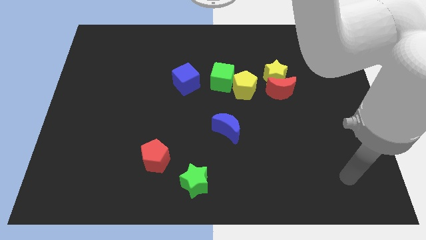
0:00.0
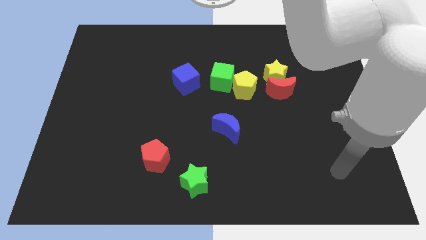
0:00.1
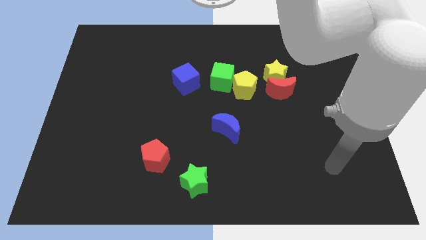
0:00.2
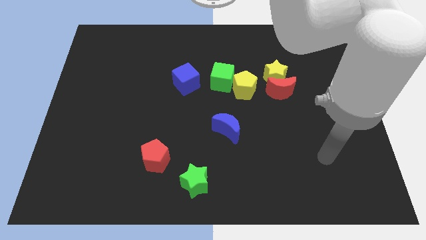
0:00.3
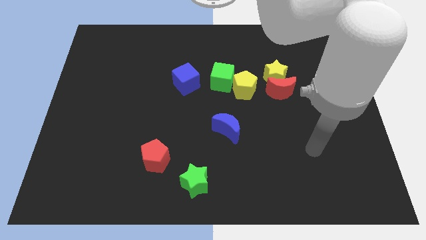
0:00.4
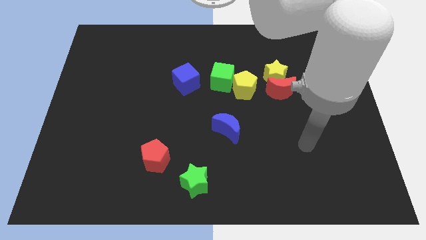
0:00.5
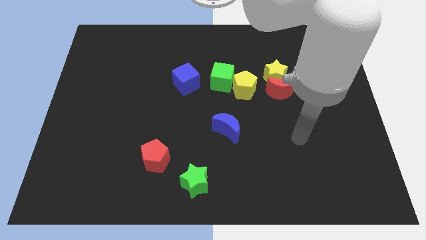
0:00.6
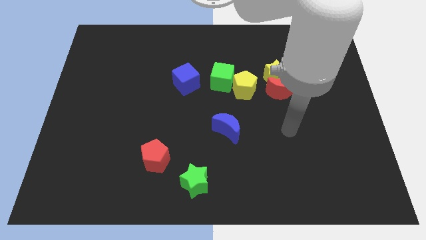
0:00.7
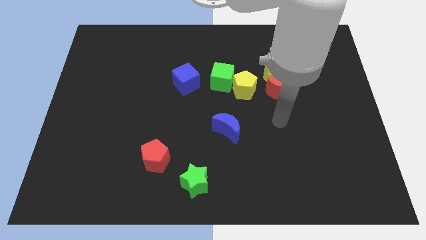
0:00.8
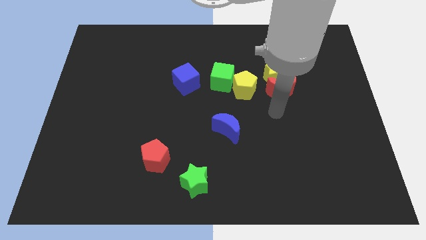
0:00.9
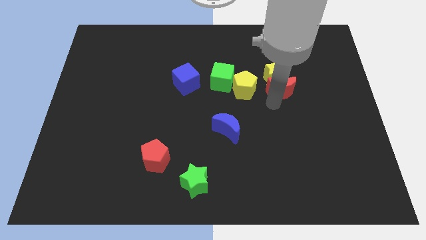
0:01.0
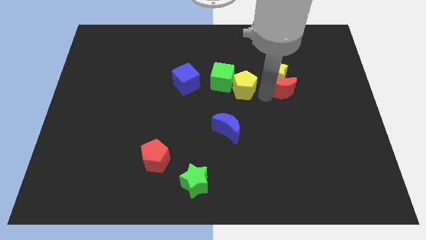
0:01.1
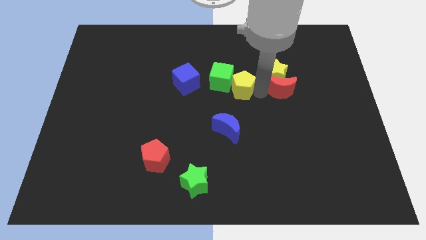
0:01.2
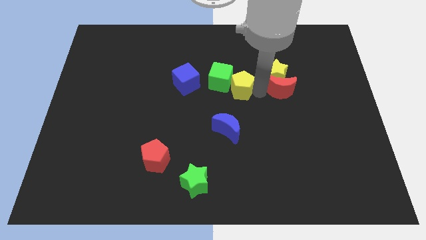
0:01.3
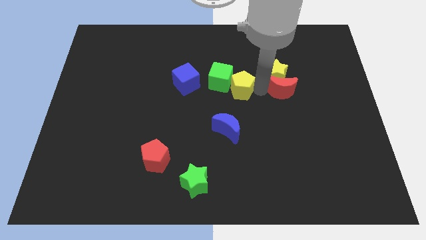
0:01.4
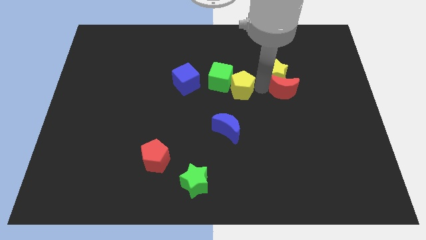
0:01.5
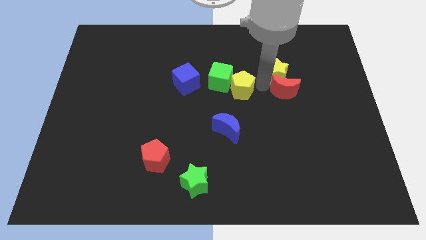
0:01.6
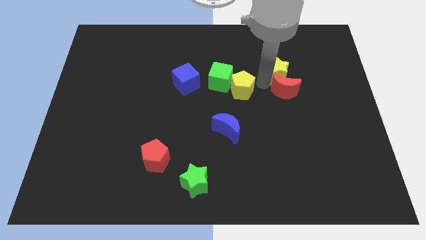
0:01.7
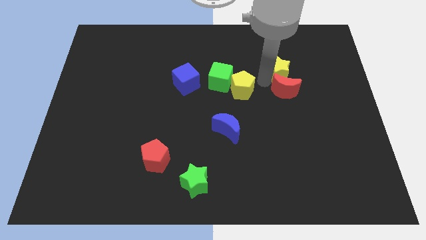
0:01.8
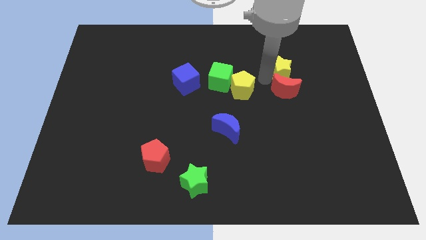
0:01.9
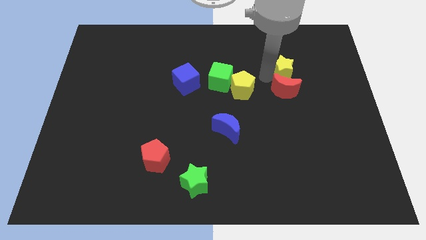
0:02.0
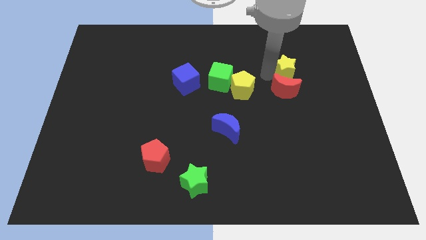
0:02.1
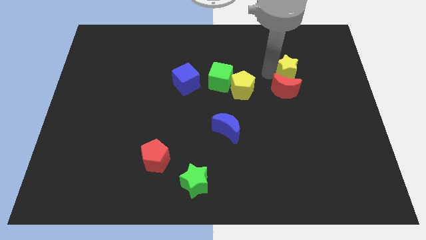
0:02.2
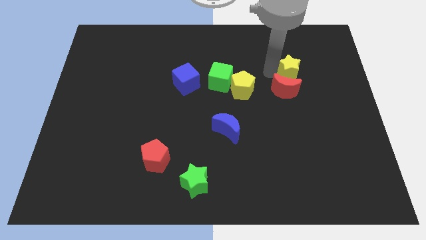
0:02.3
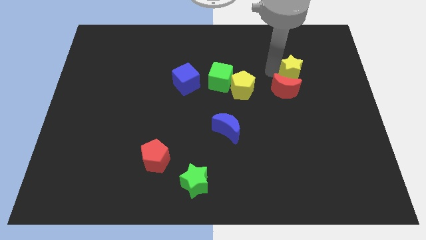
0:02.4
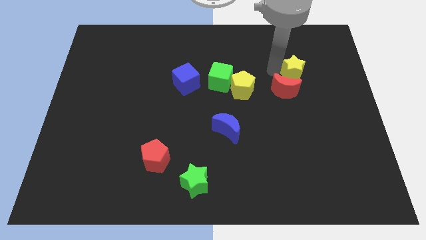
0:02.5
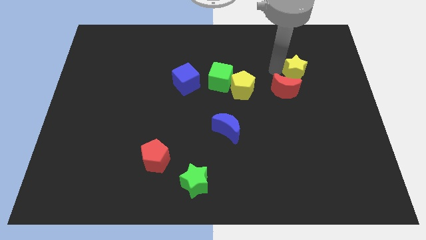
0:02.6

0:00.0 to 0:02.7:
move the yellow star away from the red moon and yellow pentagon

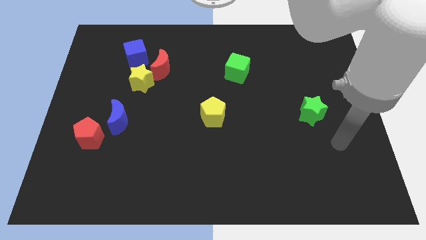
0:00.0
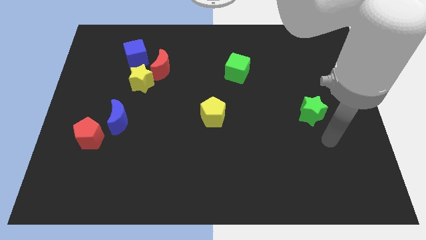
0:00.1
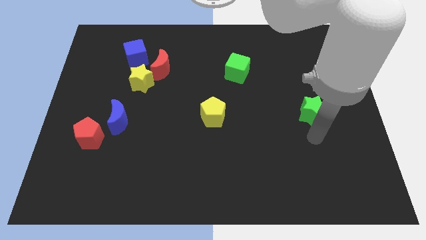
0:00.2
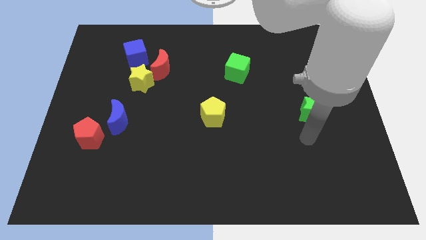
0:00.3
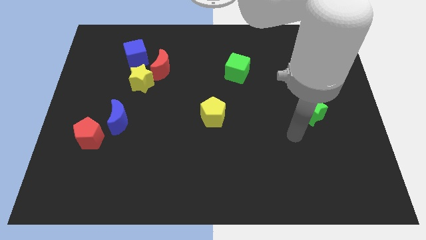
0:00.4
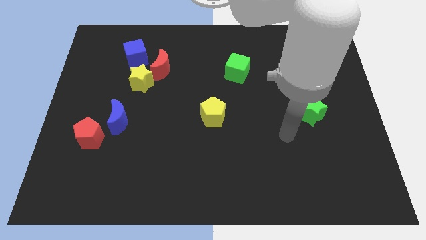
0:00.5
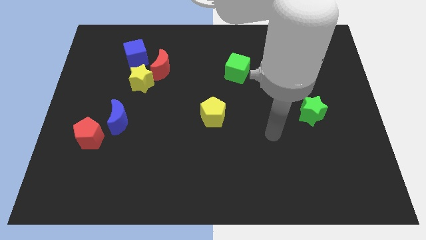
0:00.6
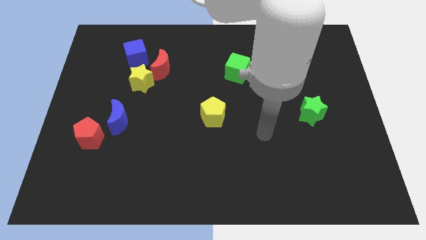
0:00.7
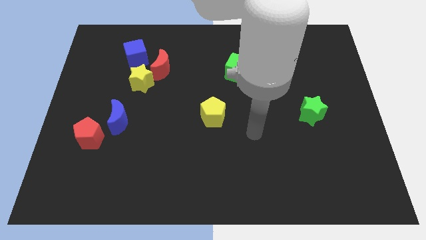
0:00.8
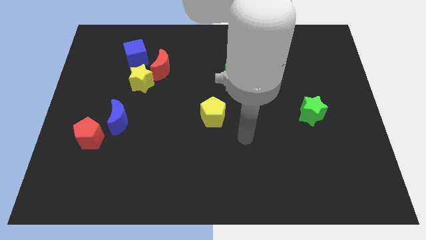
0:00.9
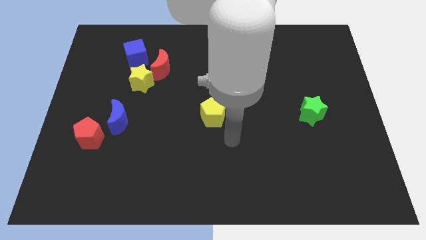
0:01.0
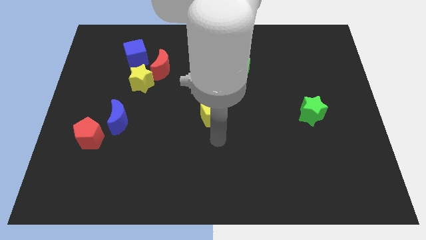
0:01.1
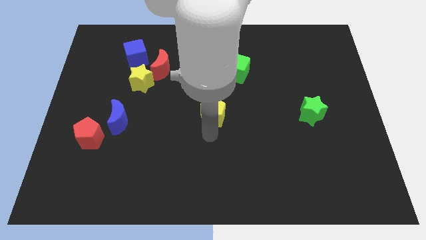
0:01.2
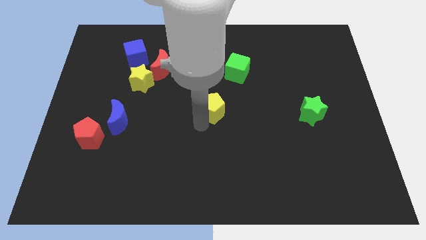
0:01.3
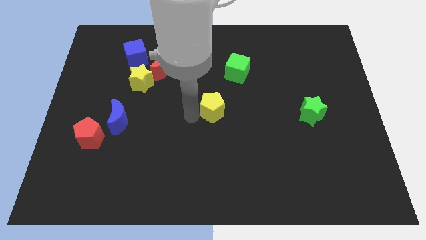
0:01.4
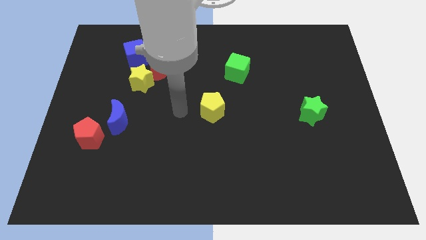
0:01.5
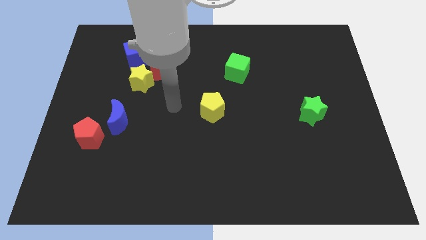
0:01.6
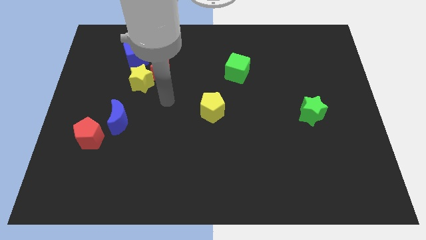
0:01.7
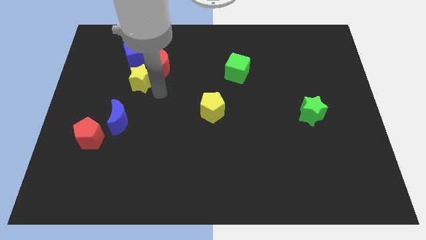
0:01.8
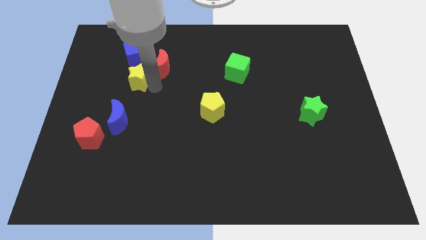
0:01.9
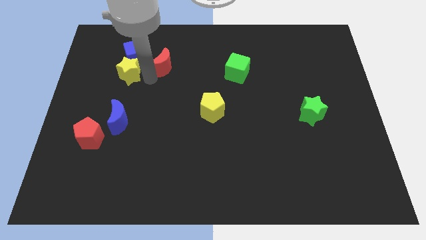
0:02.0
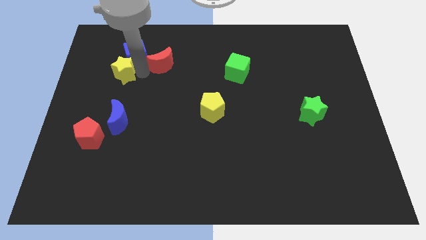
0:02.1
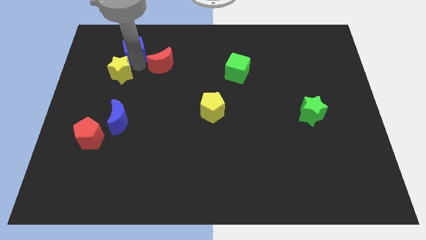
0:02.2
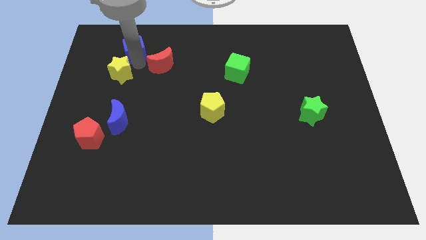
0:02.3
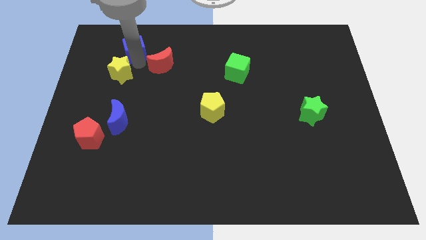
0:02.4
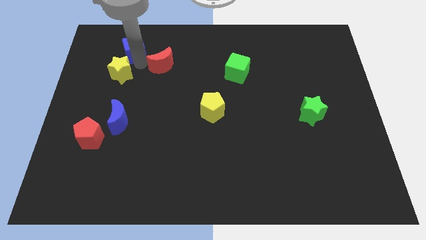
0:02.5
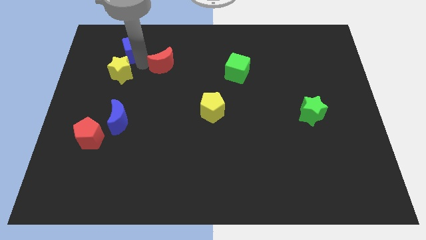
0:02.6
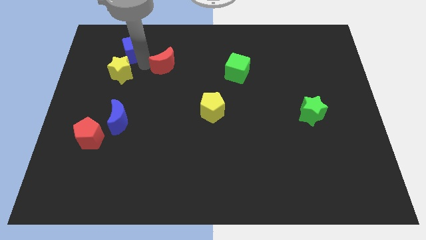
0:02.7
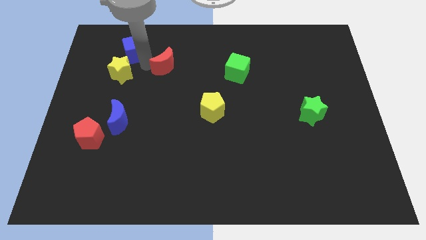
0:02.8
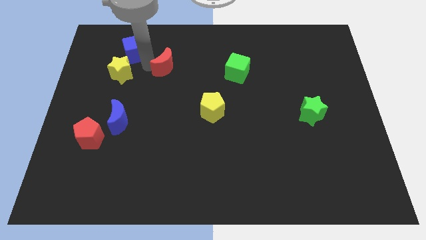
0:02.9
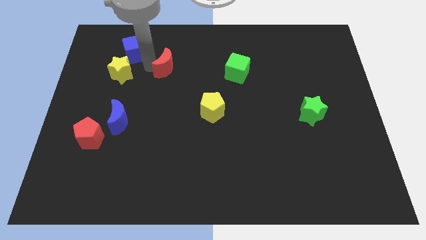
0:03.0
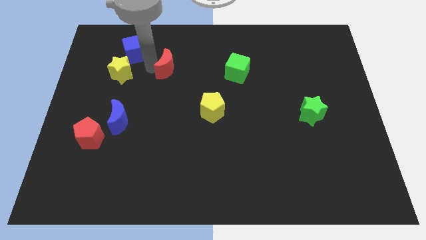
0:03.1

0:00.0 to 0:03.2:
move the red moon away from the yellow star and blue cube

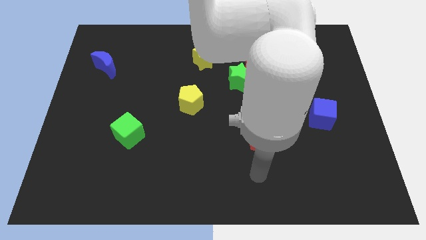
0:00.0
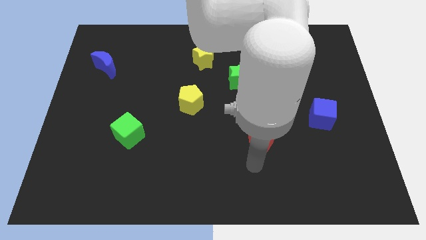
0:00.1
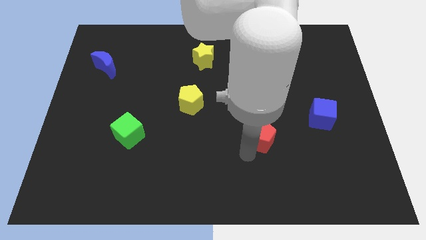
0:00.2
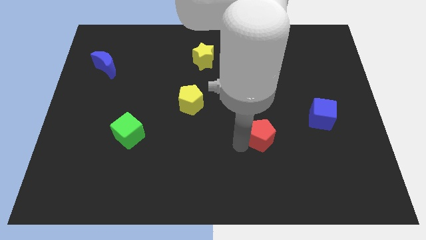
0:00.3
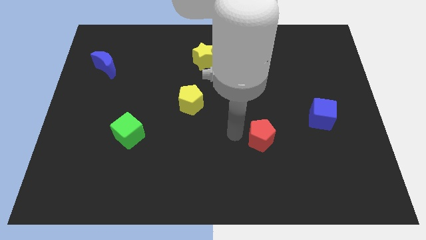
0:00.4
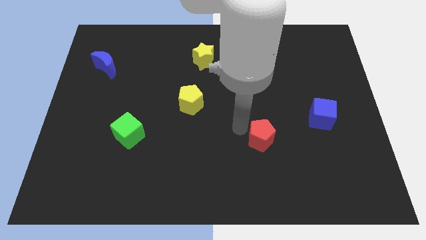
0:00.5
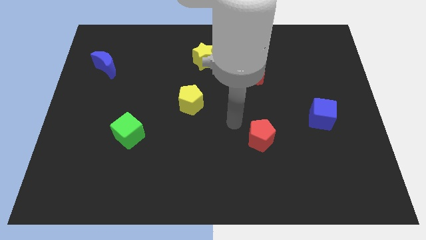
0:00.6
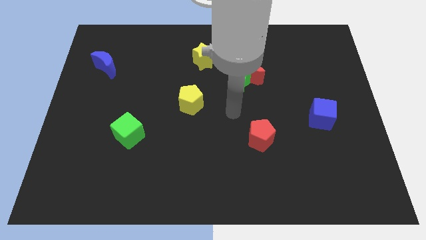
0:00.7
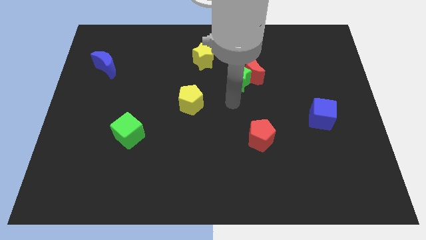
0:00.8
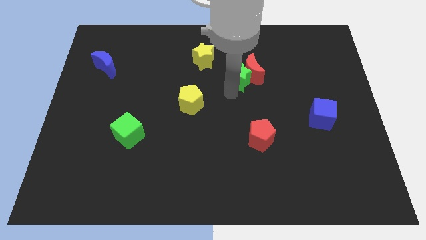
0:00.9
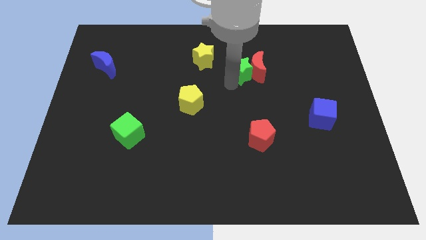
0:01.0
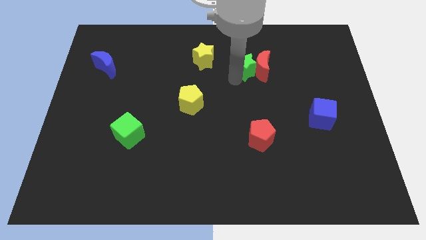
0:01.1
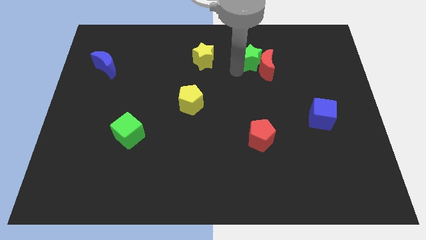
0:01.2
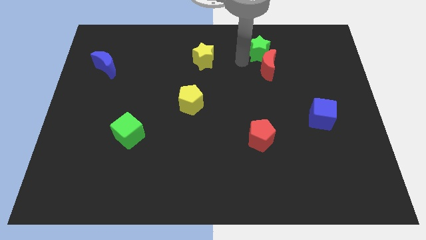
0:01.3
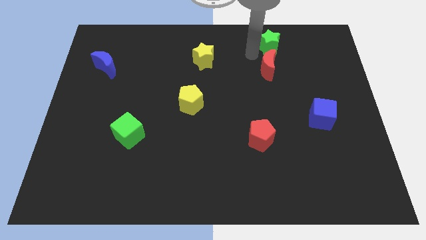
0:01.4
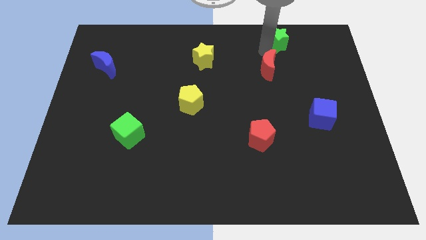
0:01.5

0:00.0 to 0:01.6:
move the red moon away from the green star

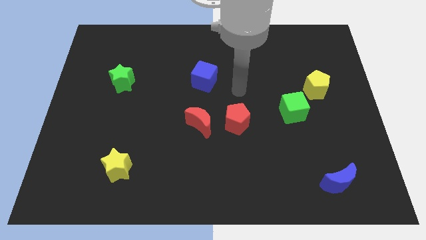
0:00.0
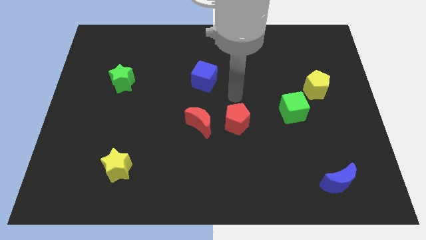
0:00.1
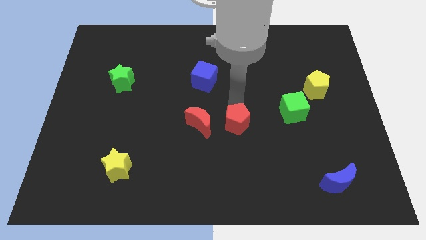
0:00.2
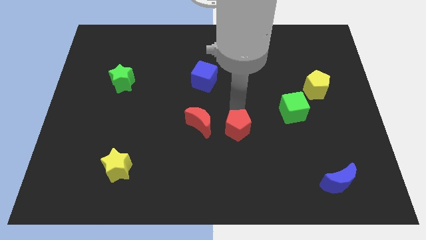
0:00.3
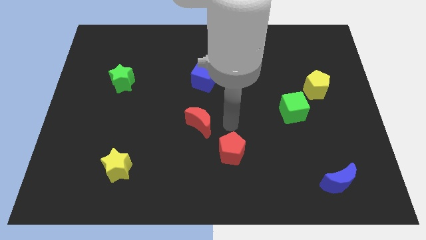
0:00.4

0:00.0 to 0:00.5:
pull the red moon apart from the red pentagon

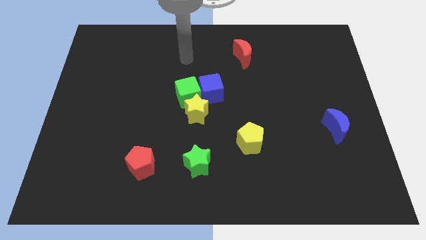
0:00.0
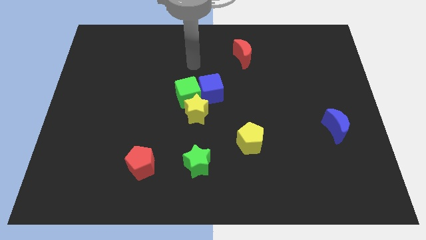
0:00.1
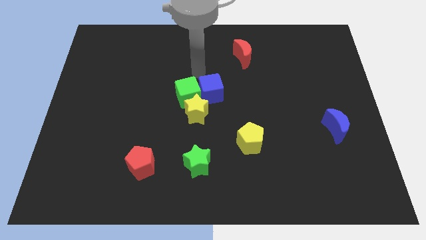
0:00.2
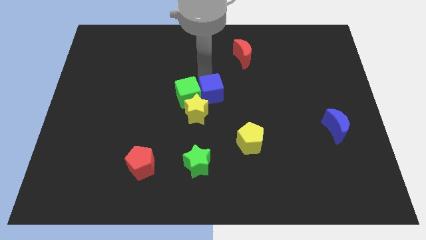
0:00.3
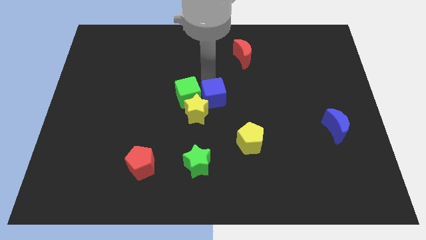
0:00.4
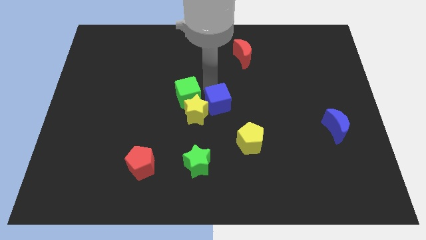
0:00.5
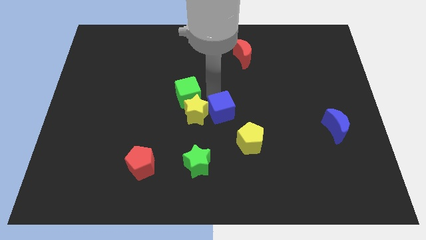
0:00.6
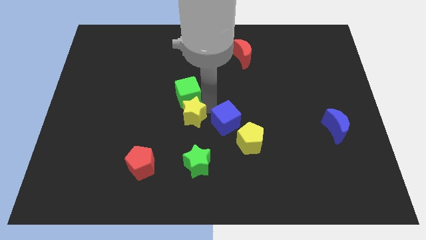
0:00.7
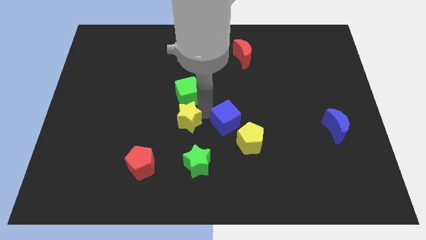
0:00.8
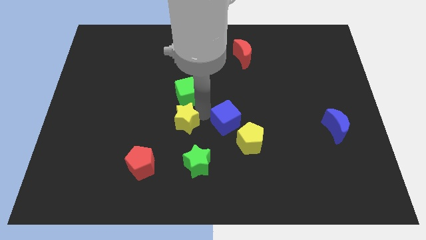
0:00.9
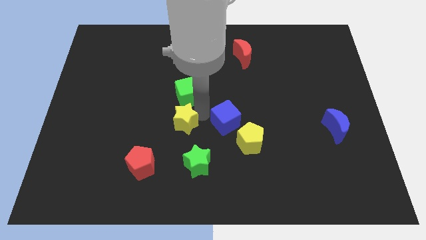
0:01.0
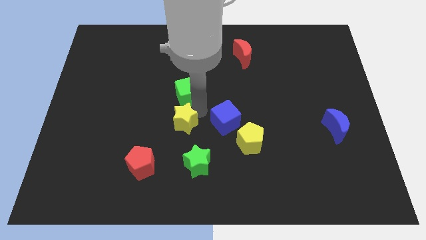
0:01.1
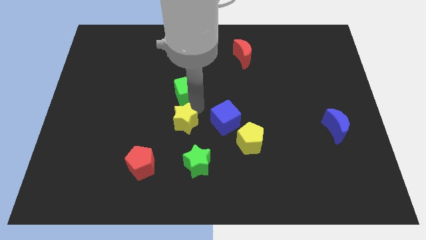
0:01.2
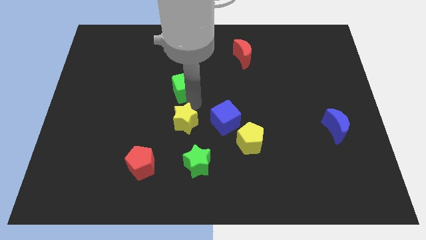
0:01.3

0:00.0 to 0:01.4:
separate the green cube from the blue cube and yellow star
